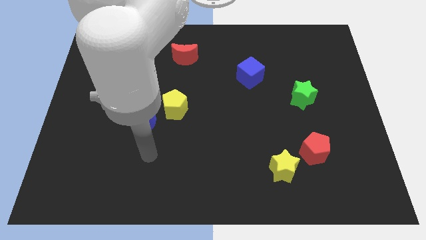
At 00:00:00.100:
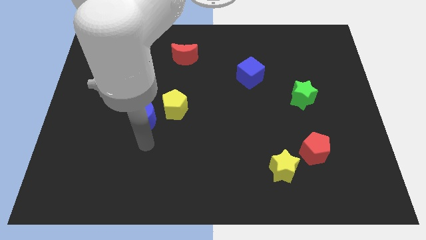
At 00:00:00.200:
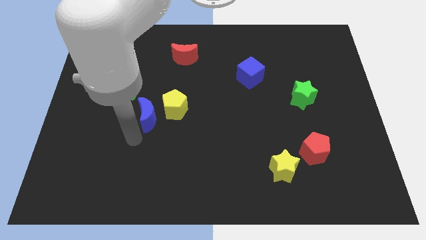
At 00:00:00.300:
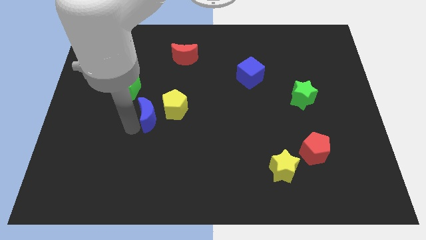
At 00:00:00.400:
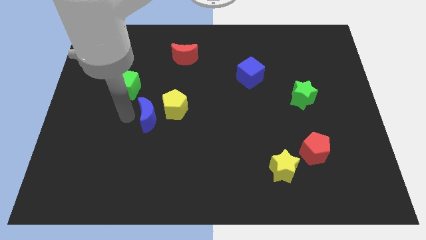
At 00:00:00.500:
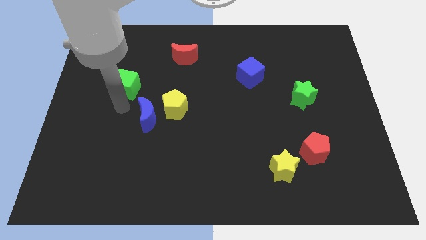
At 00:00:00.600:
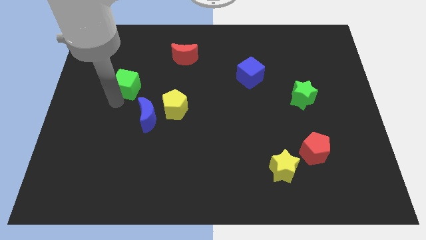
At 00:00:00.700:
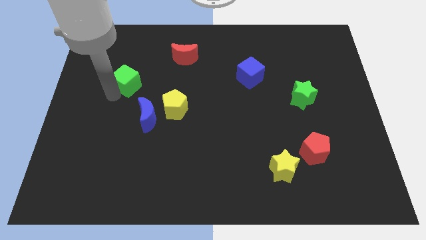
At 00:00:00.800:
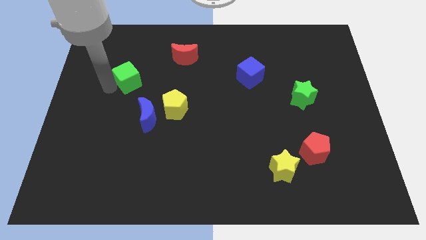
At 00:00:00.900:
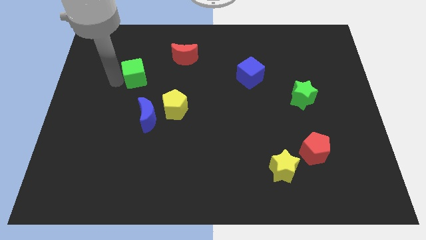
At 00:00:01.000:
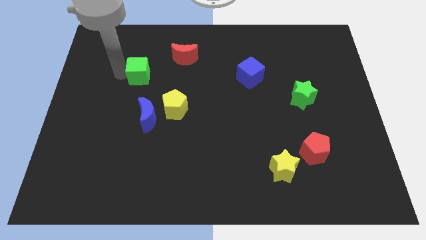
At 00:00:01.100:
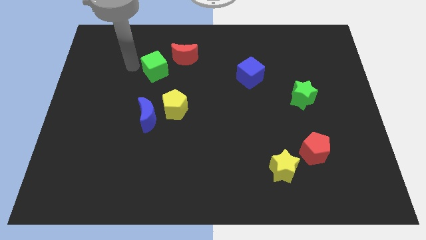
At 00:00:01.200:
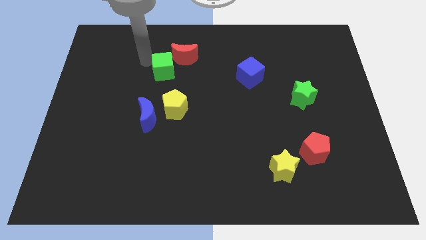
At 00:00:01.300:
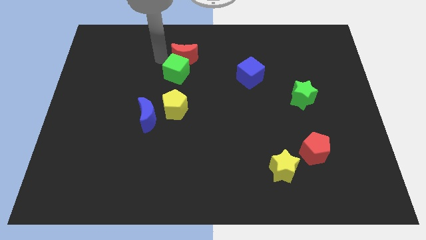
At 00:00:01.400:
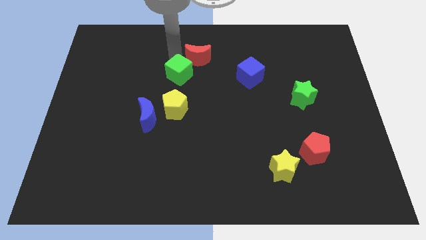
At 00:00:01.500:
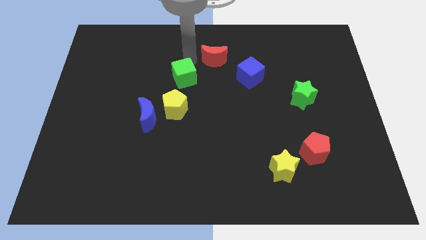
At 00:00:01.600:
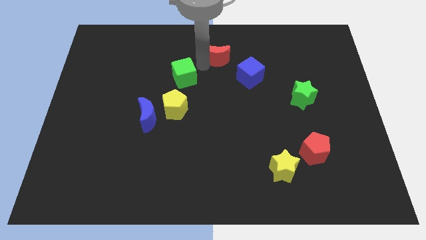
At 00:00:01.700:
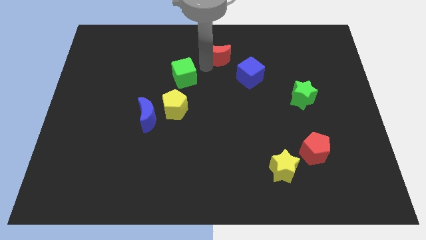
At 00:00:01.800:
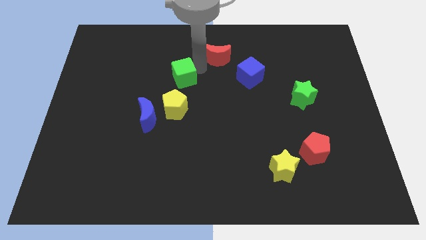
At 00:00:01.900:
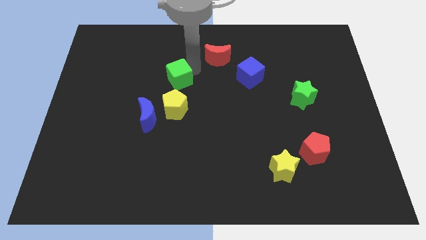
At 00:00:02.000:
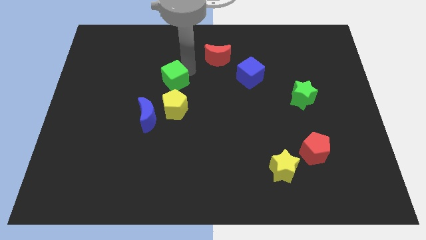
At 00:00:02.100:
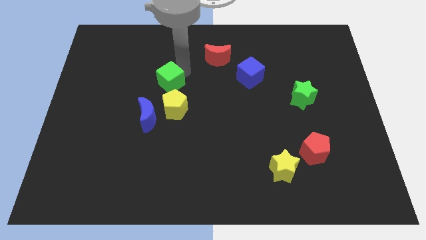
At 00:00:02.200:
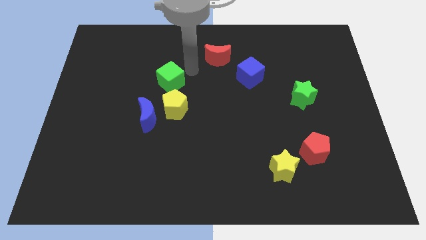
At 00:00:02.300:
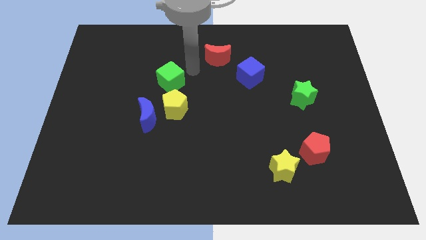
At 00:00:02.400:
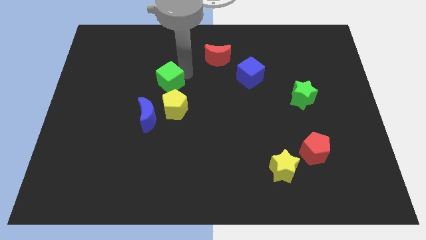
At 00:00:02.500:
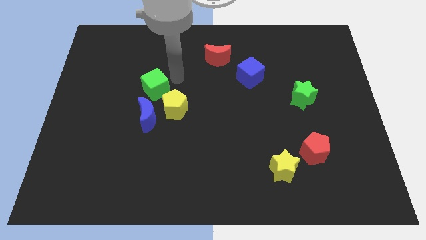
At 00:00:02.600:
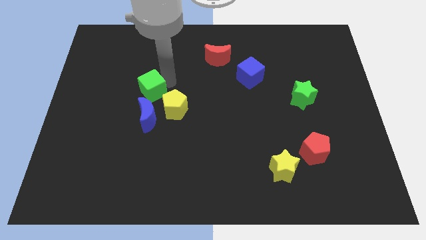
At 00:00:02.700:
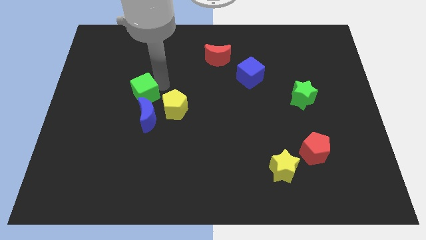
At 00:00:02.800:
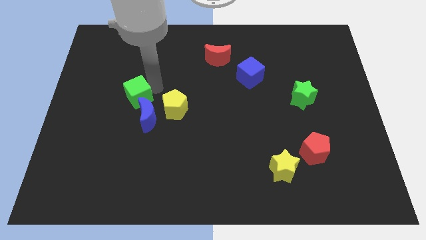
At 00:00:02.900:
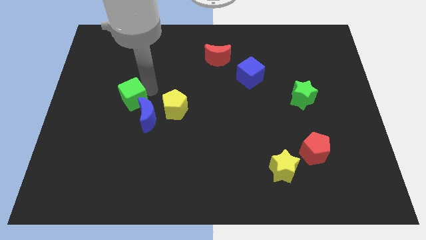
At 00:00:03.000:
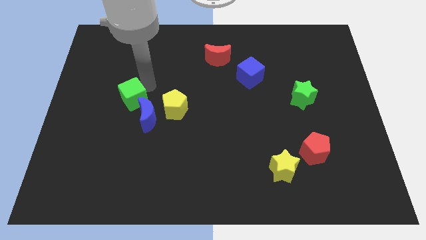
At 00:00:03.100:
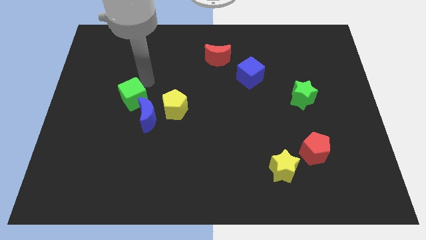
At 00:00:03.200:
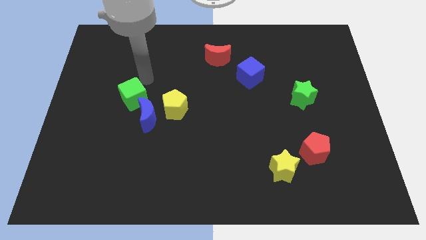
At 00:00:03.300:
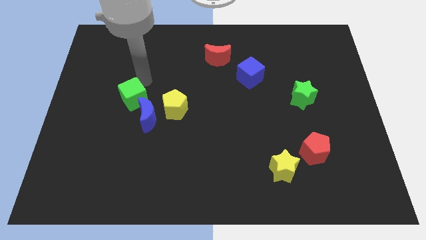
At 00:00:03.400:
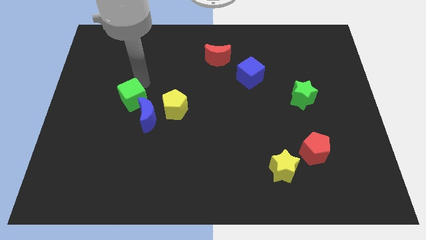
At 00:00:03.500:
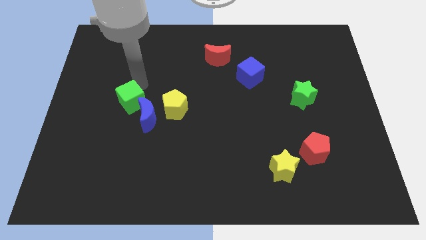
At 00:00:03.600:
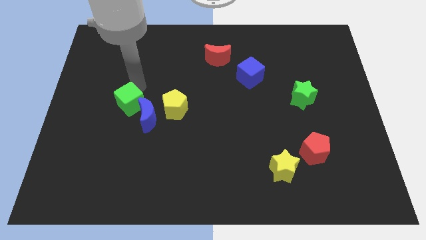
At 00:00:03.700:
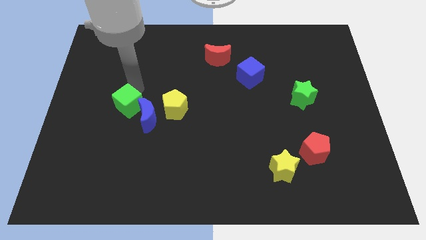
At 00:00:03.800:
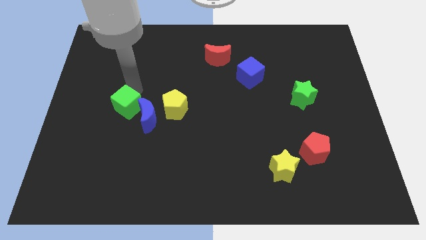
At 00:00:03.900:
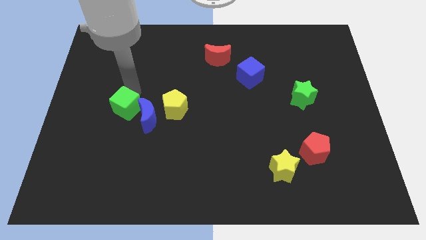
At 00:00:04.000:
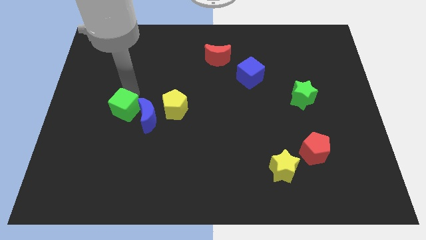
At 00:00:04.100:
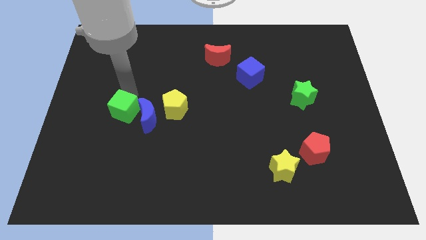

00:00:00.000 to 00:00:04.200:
slide the green cube a bit down

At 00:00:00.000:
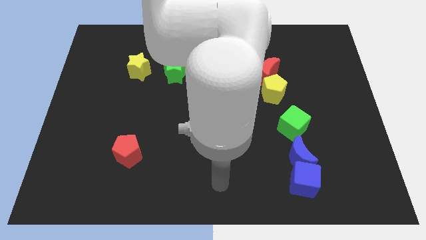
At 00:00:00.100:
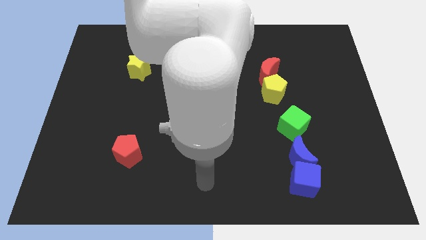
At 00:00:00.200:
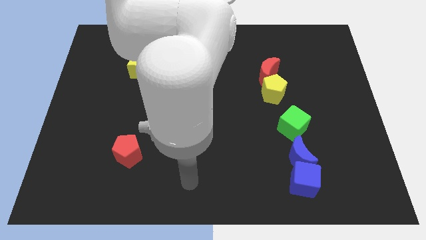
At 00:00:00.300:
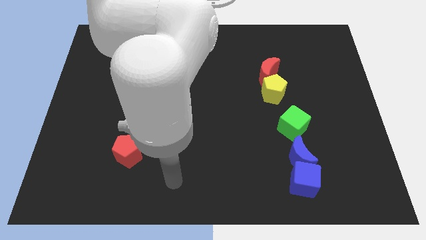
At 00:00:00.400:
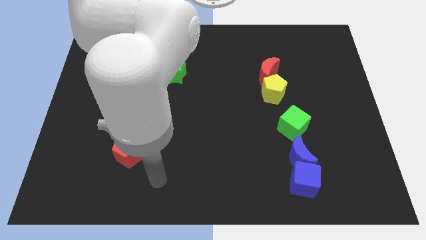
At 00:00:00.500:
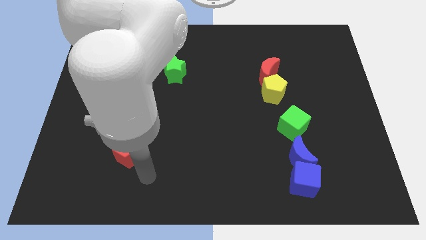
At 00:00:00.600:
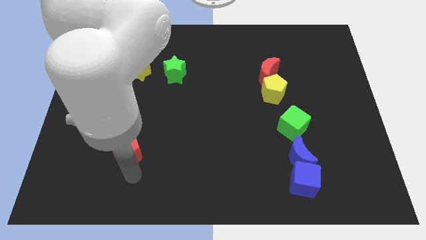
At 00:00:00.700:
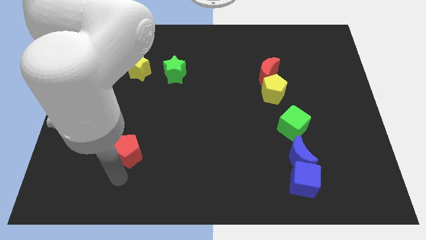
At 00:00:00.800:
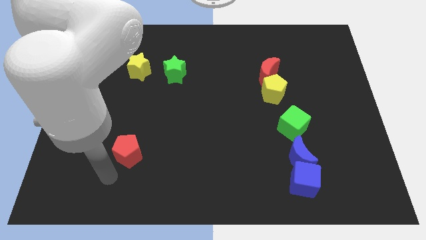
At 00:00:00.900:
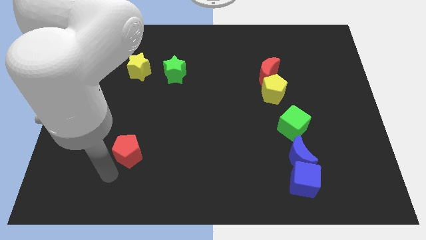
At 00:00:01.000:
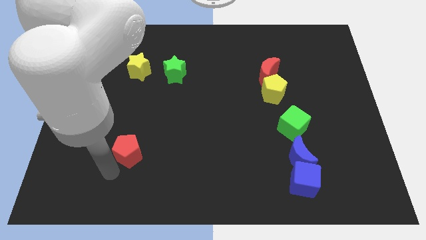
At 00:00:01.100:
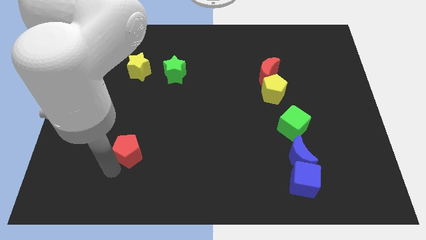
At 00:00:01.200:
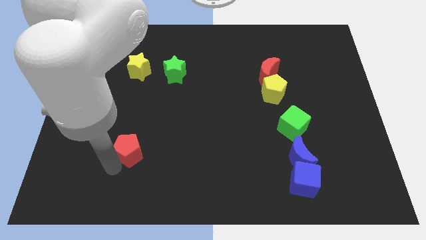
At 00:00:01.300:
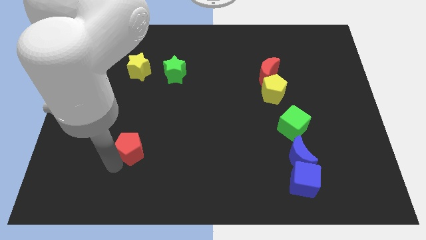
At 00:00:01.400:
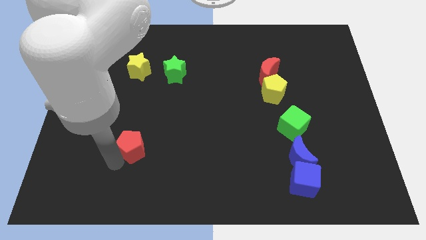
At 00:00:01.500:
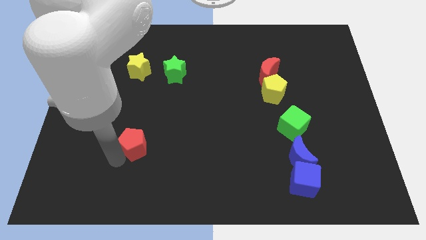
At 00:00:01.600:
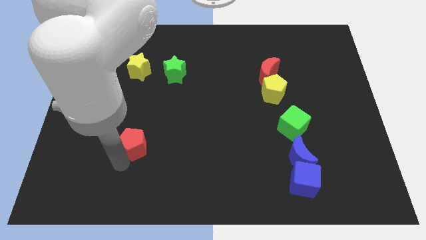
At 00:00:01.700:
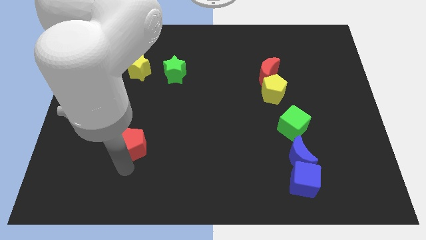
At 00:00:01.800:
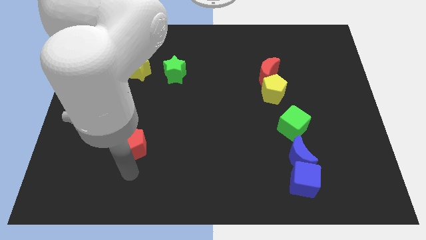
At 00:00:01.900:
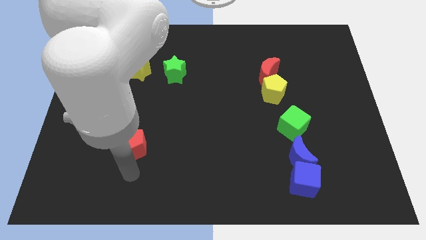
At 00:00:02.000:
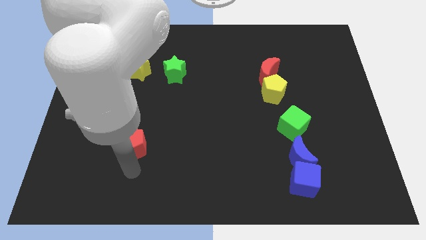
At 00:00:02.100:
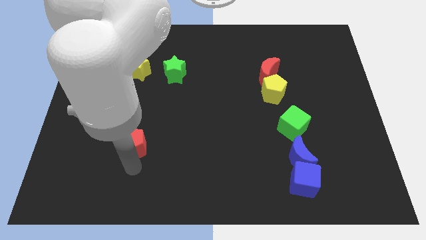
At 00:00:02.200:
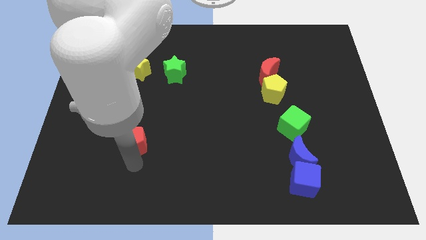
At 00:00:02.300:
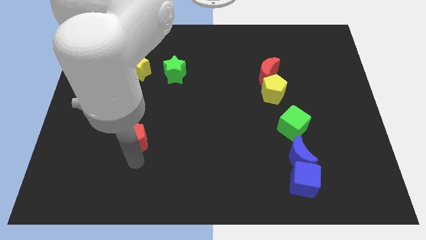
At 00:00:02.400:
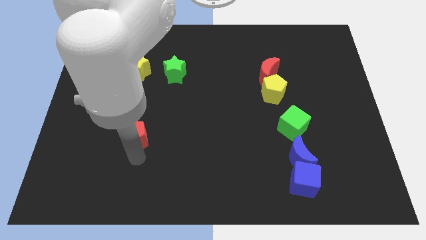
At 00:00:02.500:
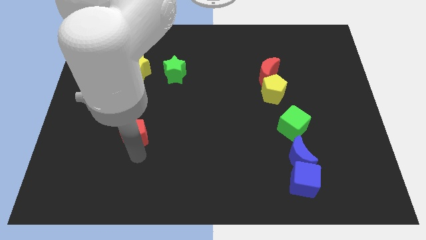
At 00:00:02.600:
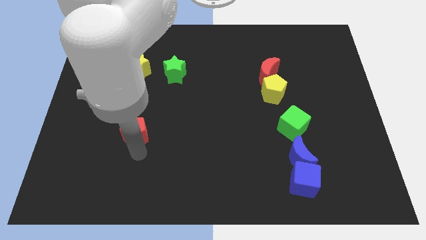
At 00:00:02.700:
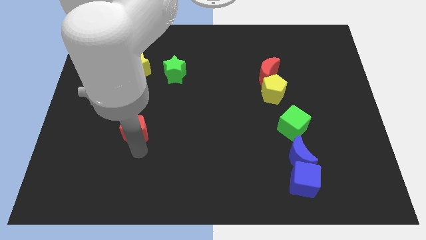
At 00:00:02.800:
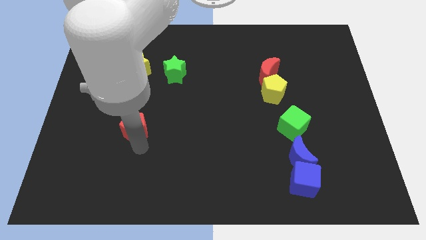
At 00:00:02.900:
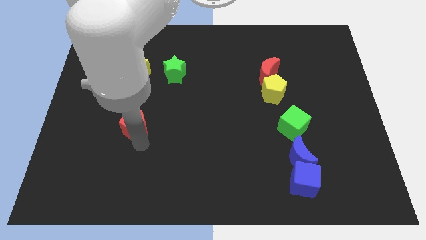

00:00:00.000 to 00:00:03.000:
slide the red pentagon upwards a bit

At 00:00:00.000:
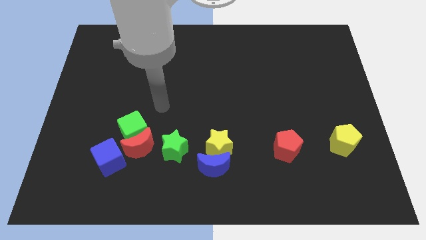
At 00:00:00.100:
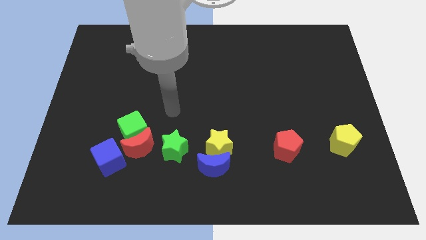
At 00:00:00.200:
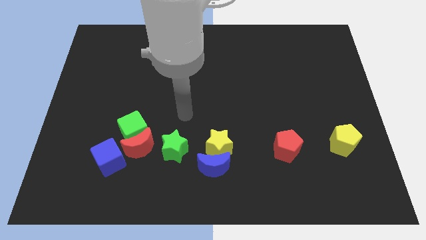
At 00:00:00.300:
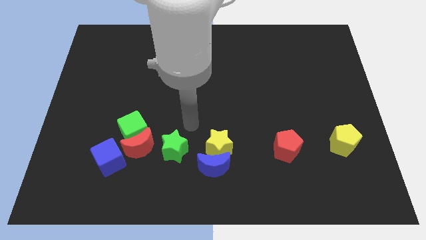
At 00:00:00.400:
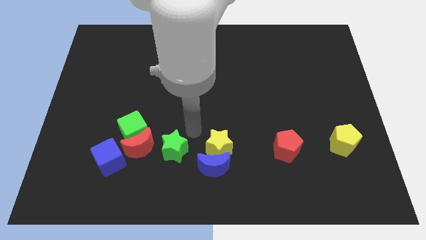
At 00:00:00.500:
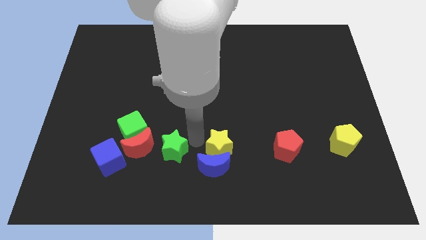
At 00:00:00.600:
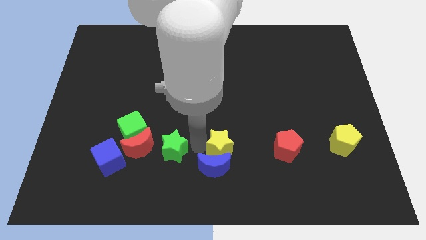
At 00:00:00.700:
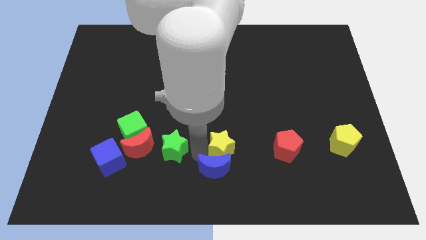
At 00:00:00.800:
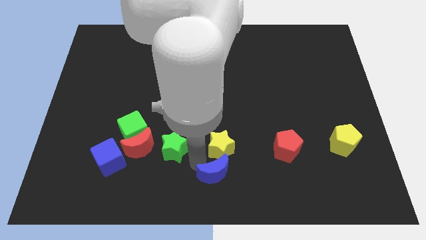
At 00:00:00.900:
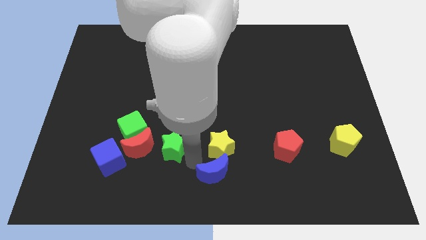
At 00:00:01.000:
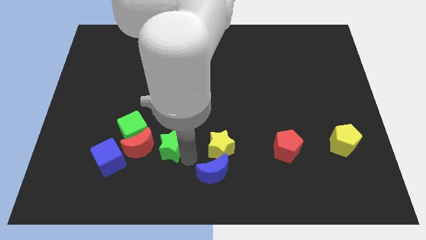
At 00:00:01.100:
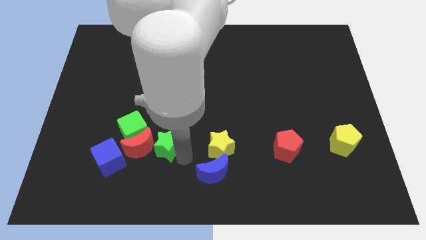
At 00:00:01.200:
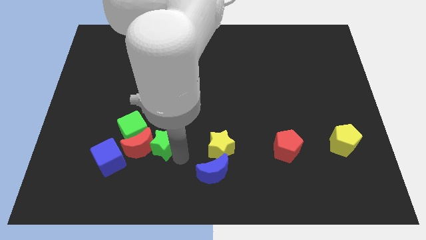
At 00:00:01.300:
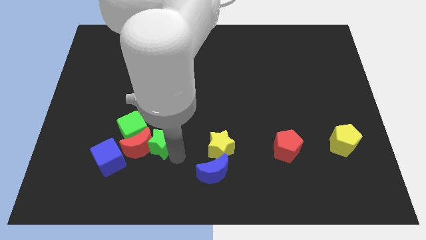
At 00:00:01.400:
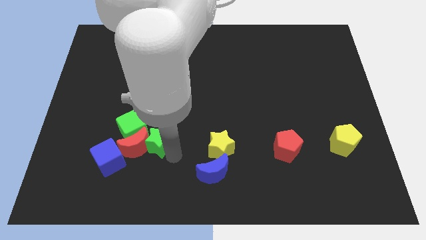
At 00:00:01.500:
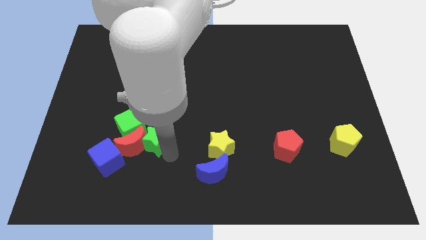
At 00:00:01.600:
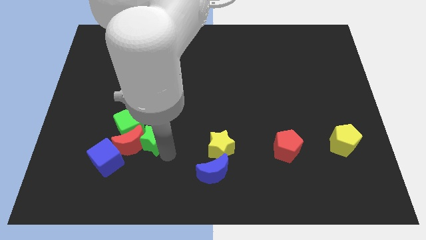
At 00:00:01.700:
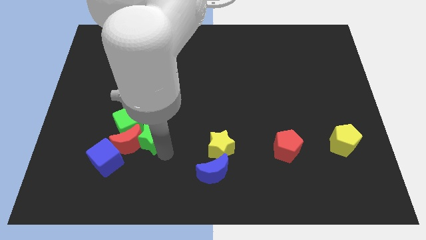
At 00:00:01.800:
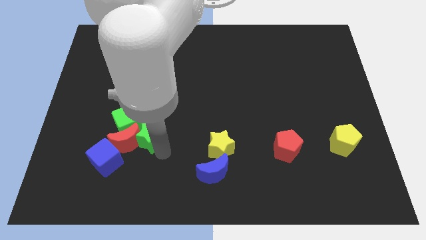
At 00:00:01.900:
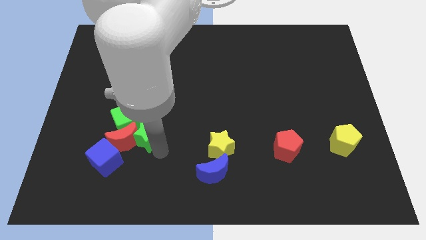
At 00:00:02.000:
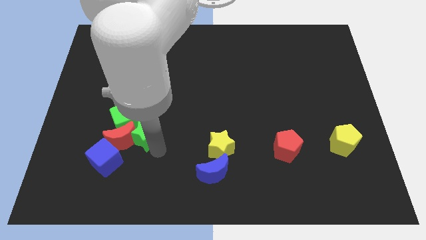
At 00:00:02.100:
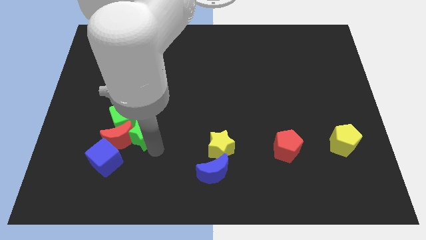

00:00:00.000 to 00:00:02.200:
move the green star up and then to the left a bit
